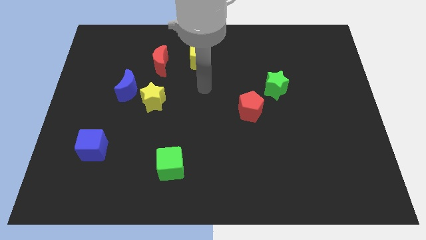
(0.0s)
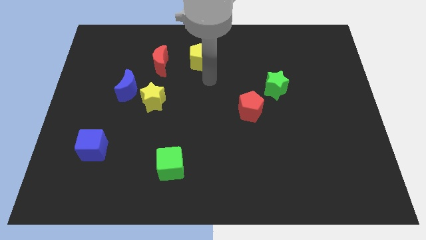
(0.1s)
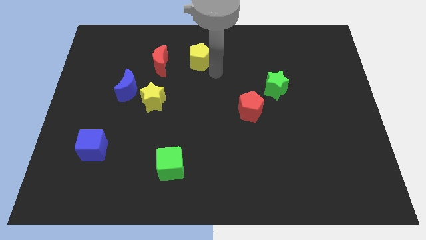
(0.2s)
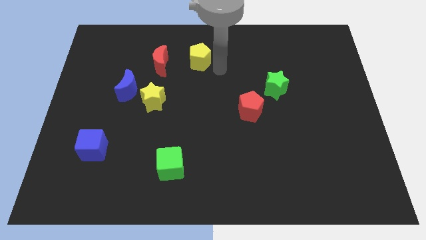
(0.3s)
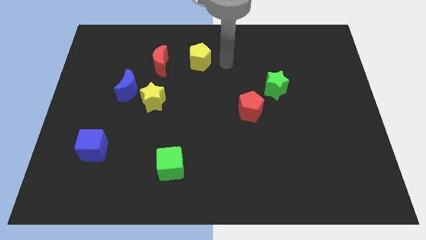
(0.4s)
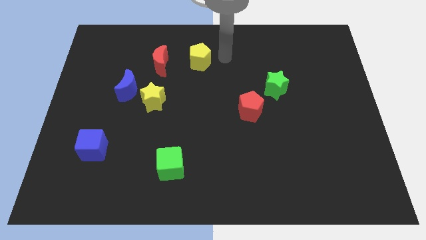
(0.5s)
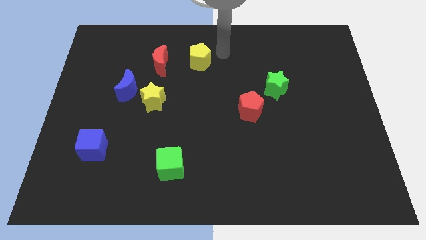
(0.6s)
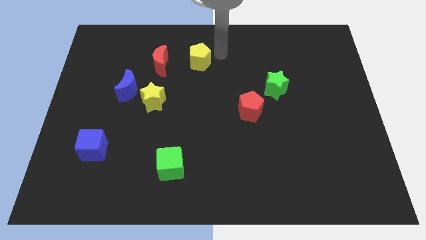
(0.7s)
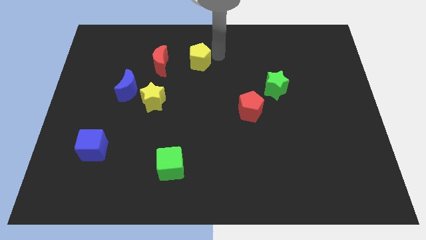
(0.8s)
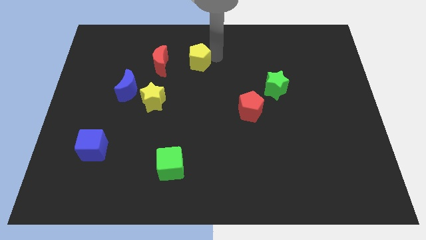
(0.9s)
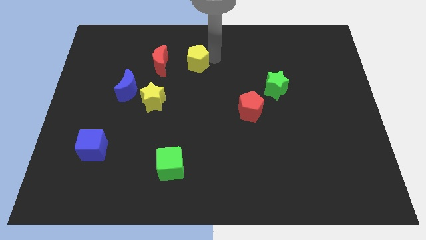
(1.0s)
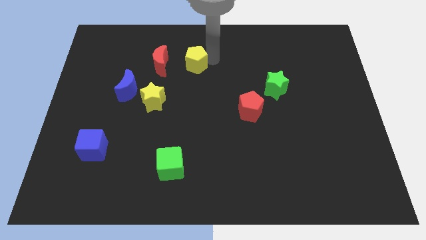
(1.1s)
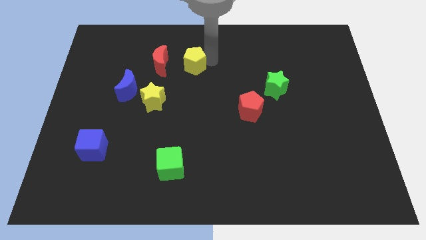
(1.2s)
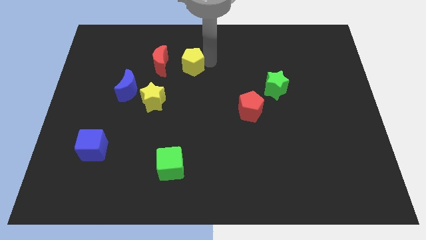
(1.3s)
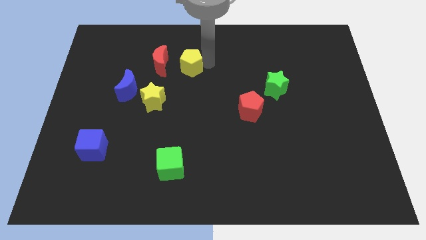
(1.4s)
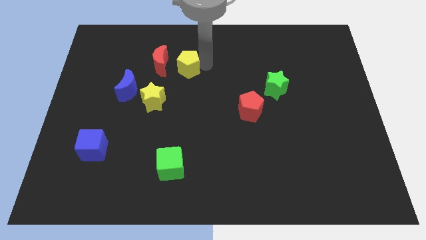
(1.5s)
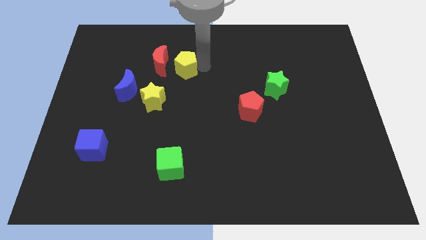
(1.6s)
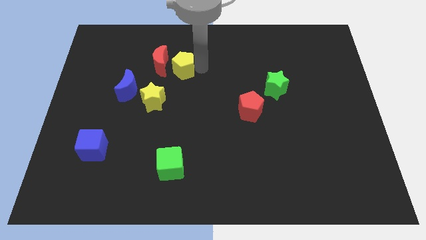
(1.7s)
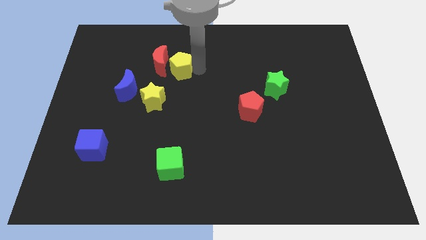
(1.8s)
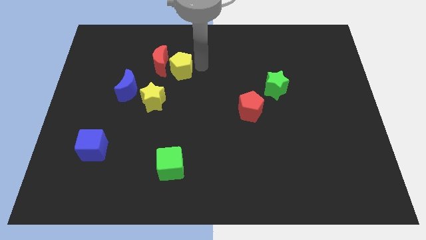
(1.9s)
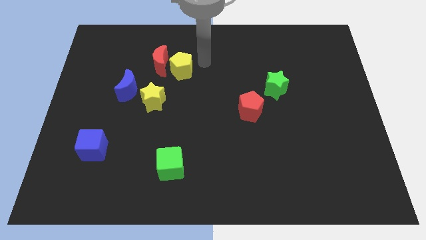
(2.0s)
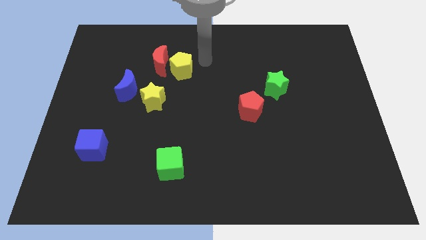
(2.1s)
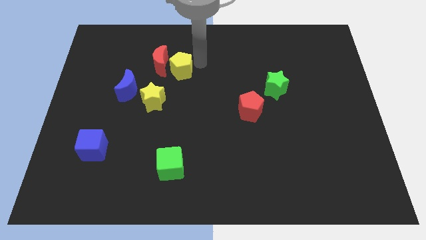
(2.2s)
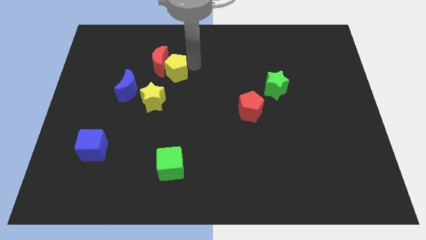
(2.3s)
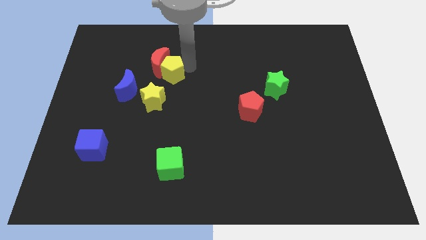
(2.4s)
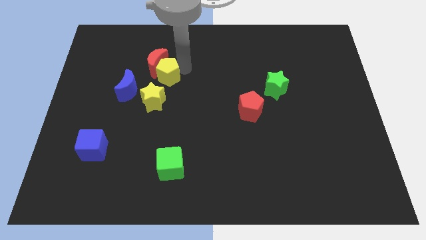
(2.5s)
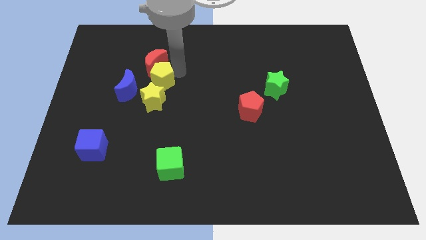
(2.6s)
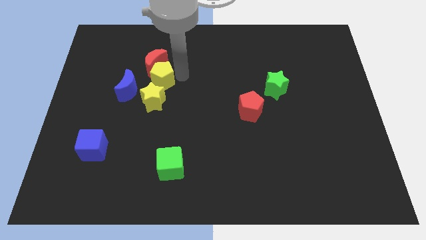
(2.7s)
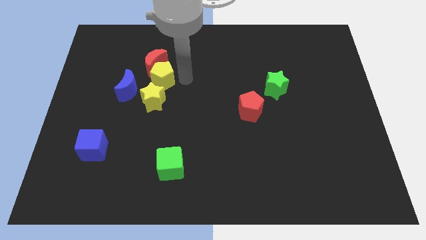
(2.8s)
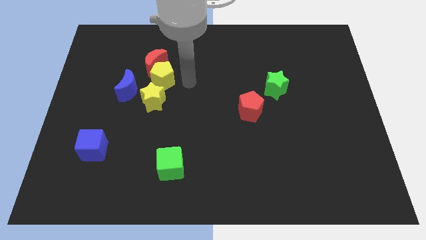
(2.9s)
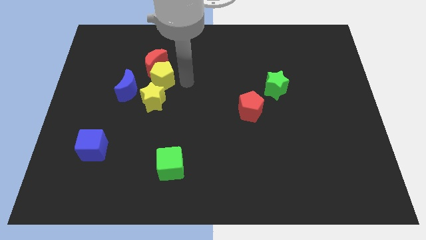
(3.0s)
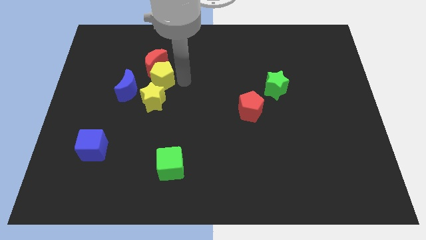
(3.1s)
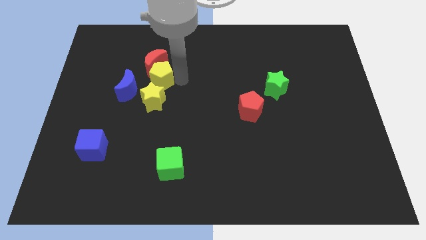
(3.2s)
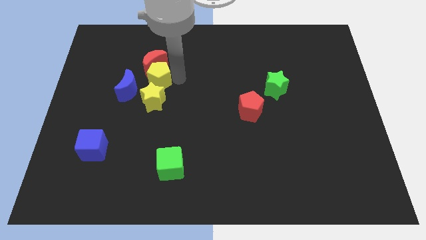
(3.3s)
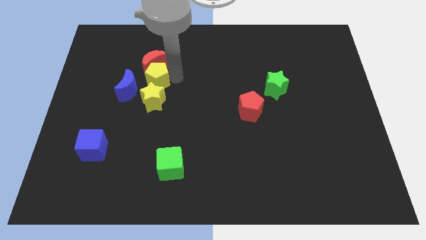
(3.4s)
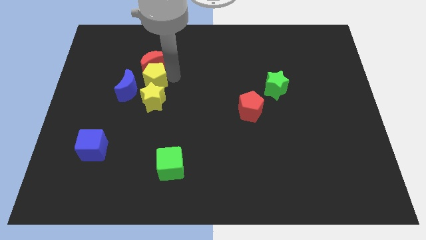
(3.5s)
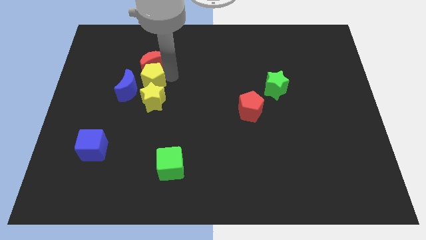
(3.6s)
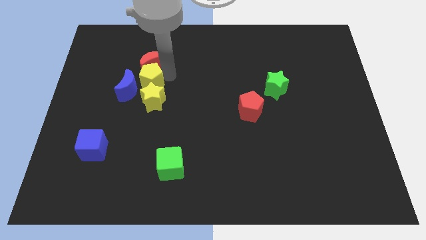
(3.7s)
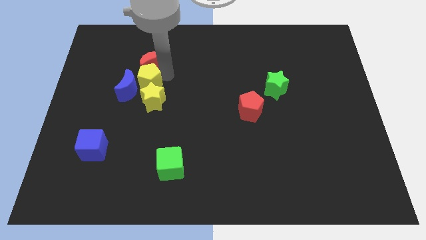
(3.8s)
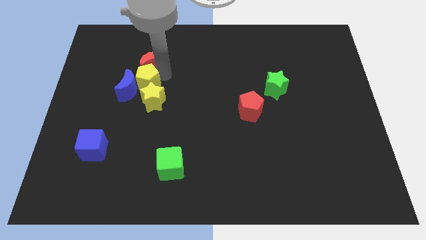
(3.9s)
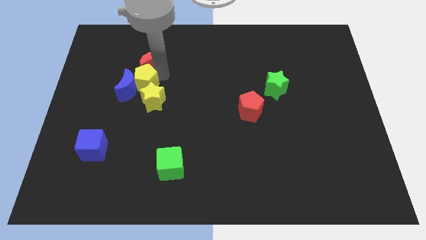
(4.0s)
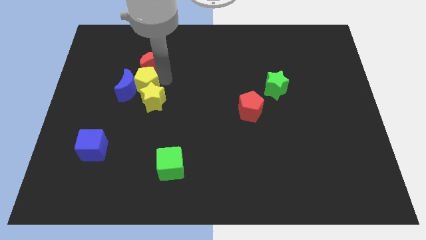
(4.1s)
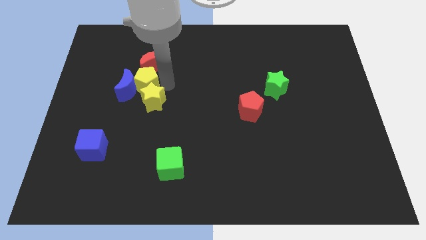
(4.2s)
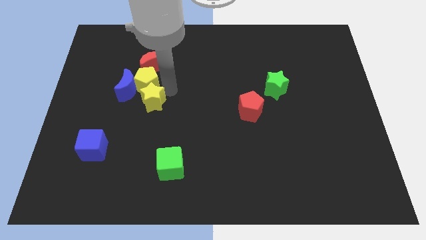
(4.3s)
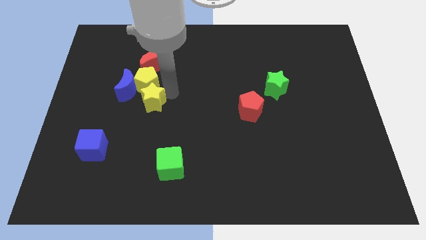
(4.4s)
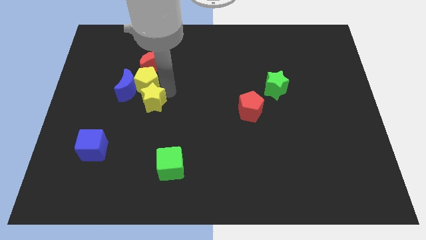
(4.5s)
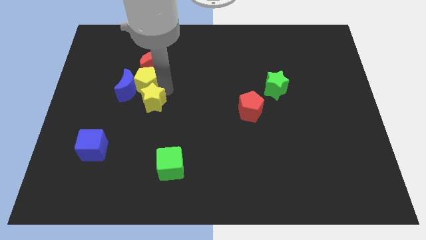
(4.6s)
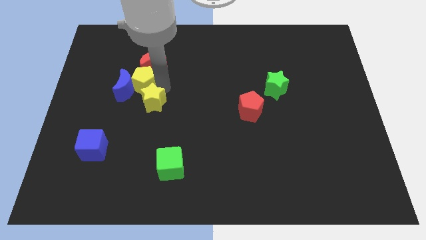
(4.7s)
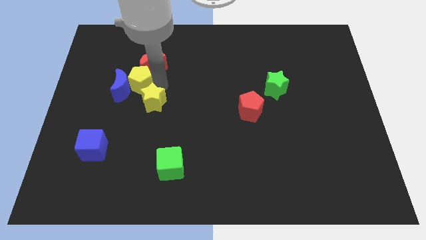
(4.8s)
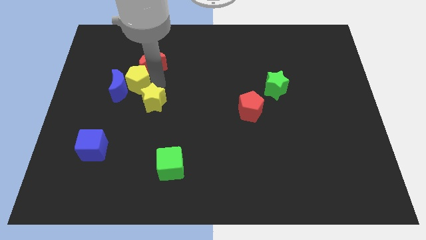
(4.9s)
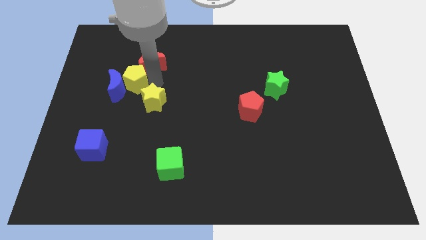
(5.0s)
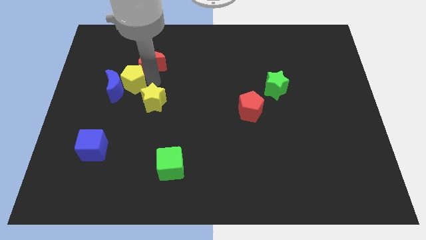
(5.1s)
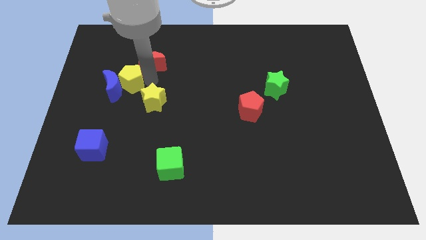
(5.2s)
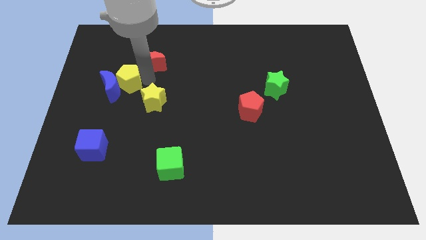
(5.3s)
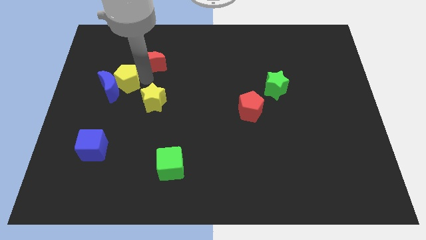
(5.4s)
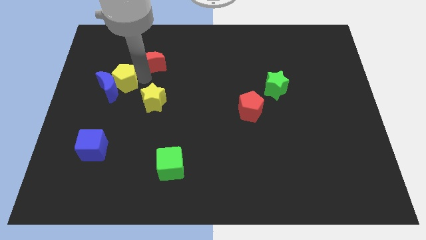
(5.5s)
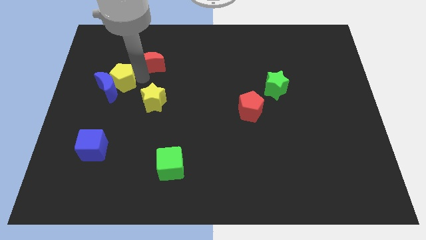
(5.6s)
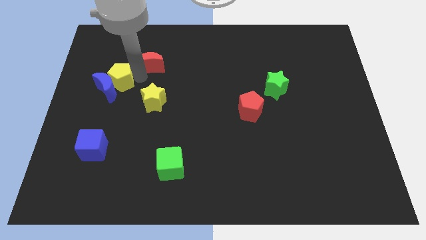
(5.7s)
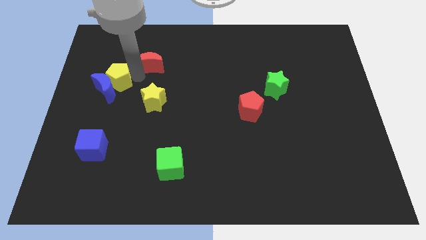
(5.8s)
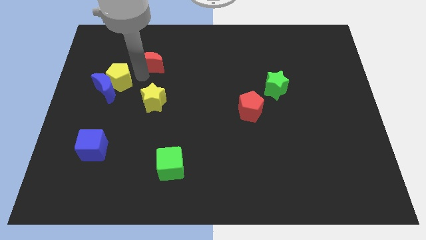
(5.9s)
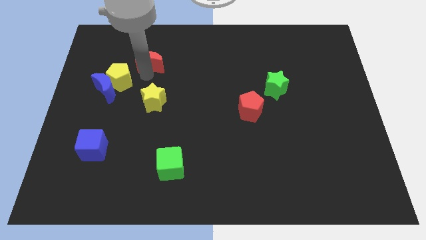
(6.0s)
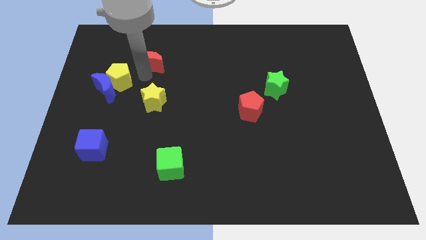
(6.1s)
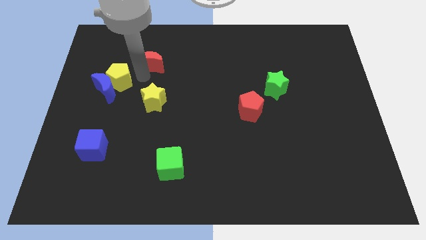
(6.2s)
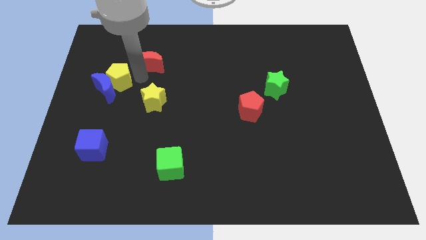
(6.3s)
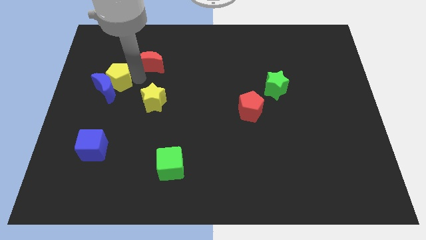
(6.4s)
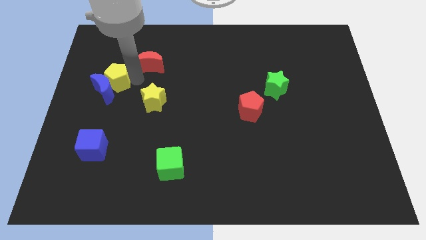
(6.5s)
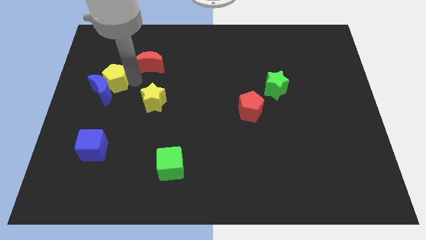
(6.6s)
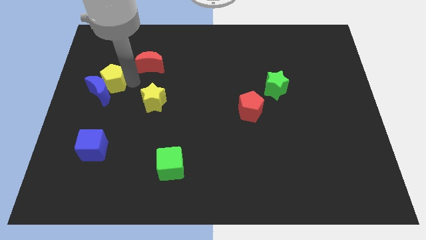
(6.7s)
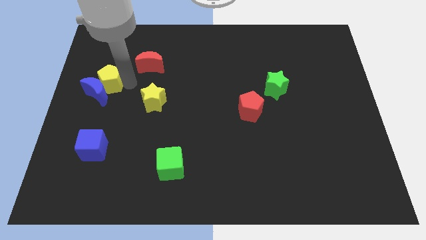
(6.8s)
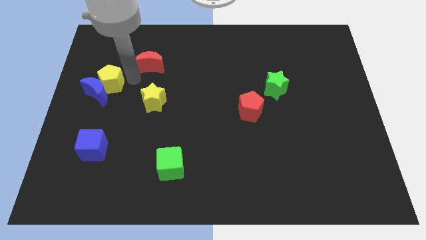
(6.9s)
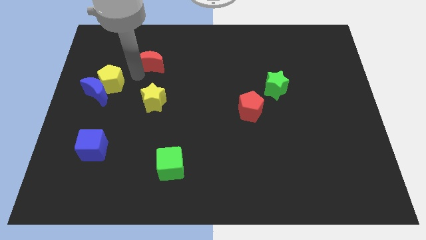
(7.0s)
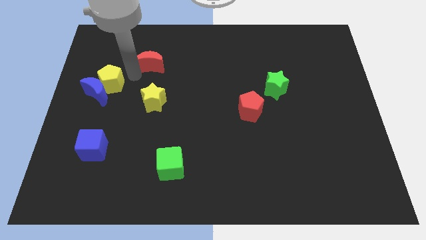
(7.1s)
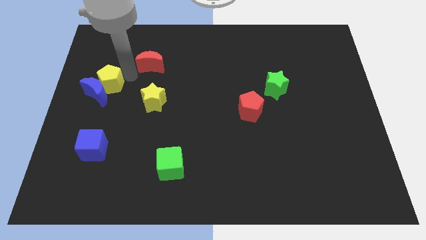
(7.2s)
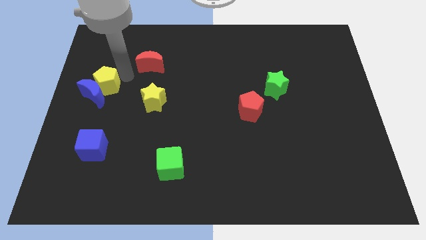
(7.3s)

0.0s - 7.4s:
push the yellow pentagon to the left side
